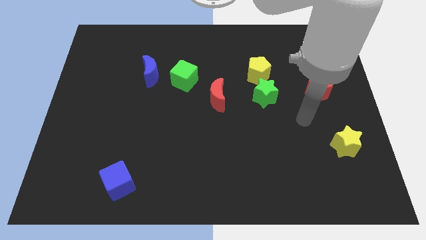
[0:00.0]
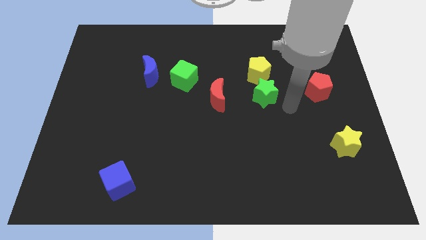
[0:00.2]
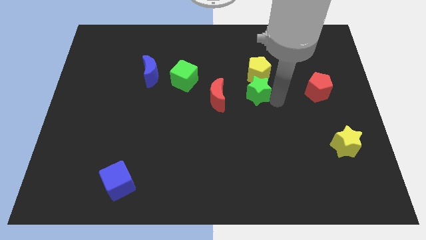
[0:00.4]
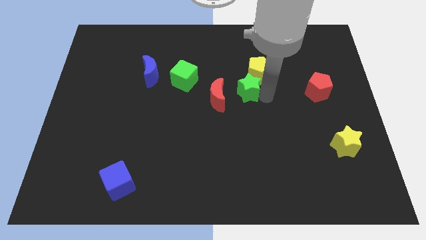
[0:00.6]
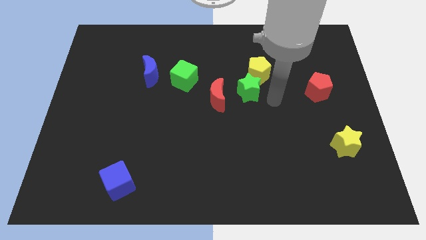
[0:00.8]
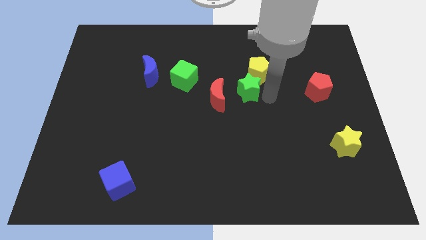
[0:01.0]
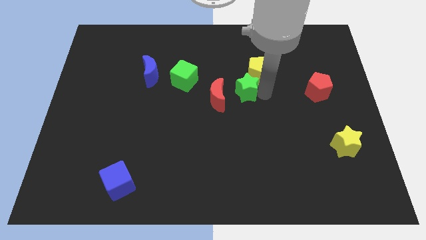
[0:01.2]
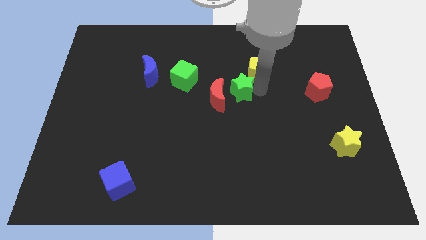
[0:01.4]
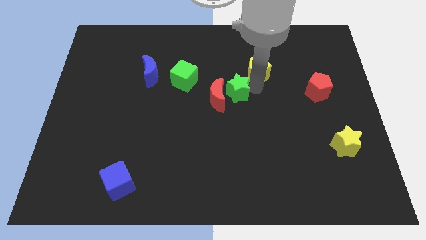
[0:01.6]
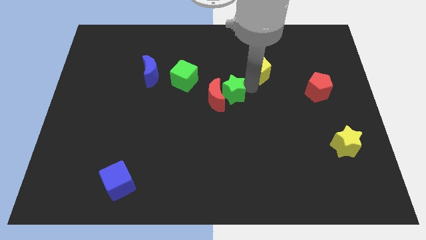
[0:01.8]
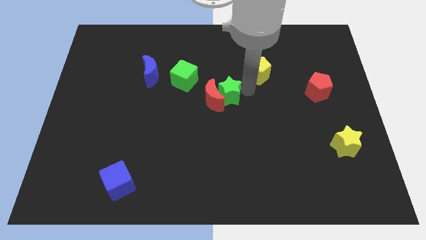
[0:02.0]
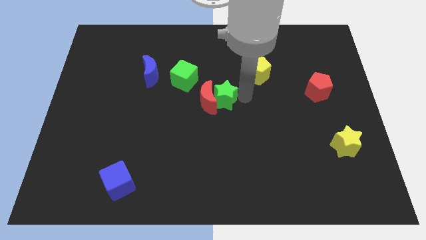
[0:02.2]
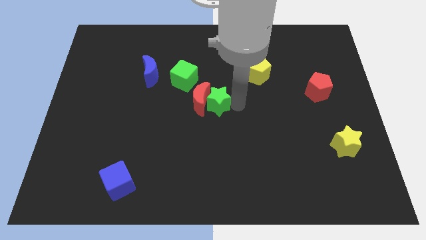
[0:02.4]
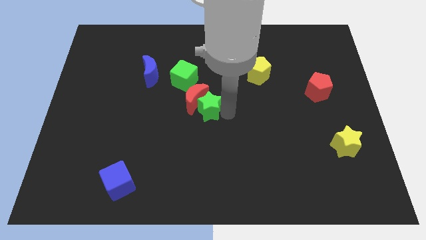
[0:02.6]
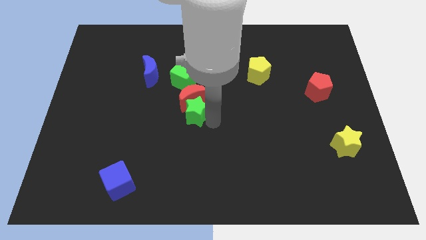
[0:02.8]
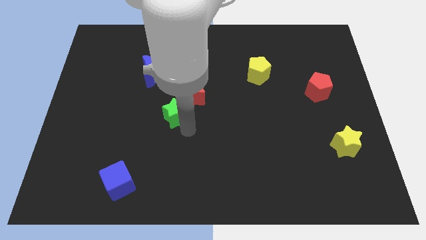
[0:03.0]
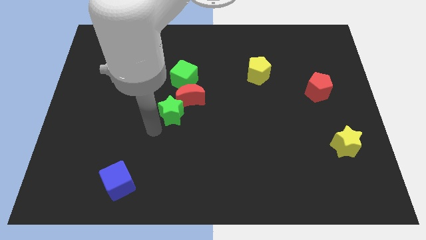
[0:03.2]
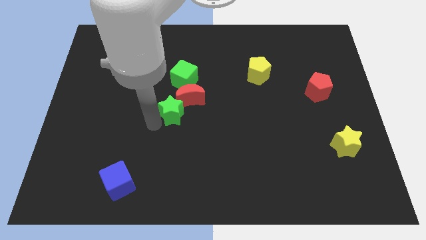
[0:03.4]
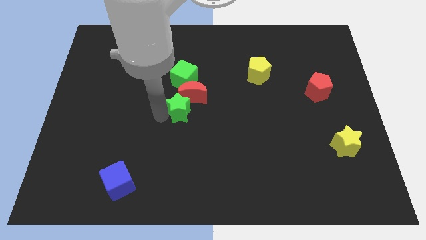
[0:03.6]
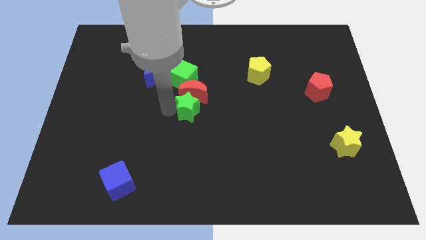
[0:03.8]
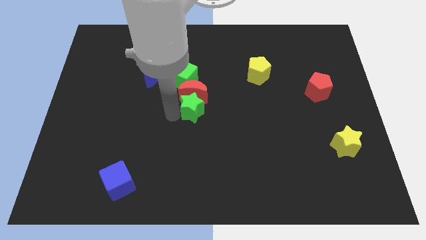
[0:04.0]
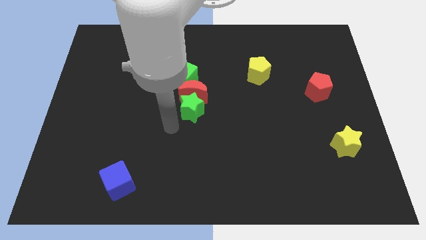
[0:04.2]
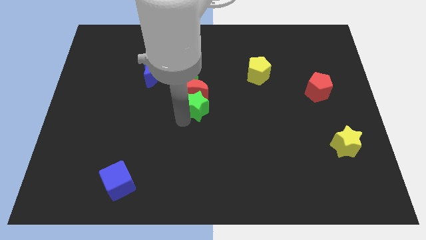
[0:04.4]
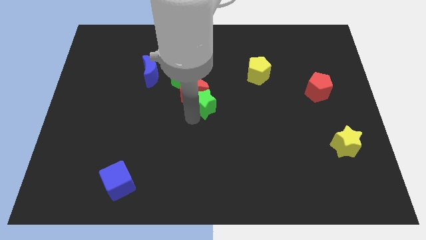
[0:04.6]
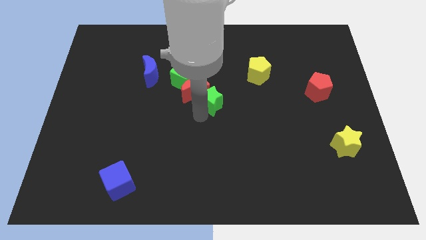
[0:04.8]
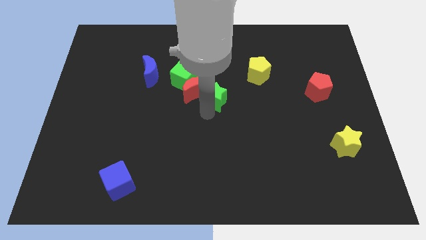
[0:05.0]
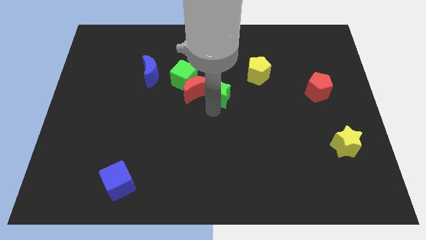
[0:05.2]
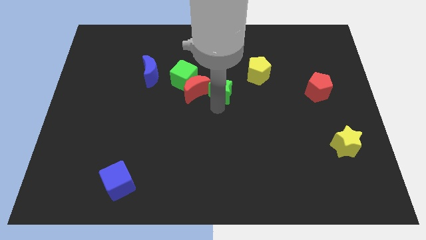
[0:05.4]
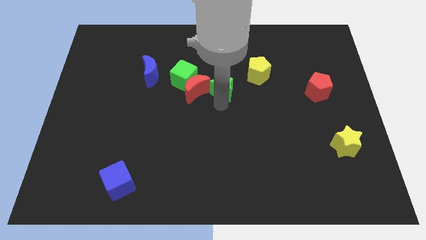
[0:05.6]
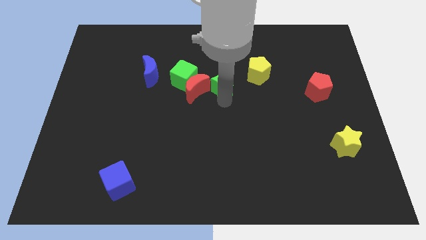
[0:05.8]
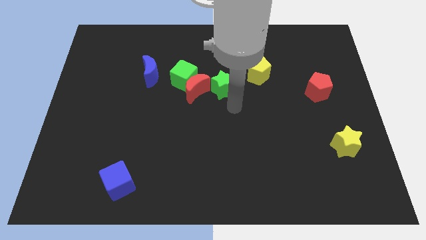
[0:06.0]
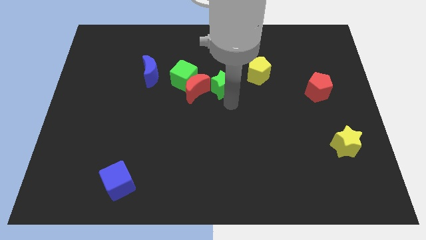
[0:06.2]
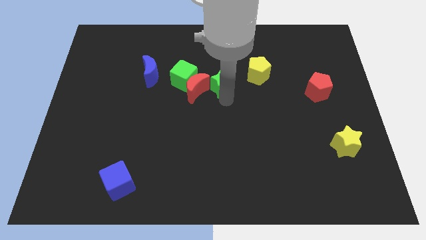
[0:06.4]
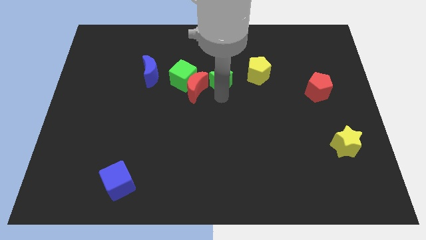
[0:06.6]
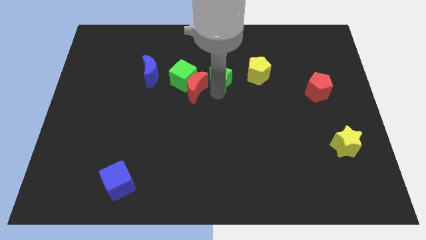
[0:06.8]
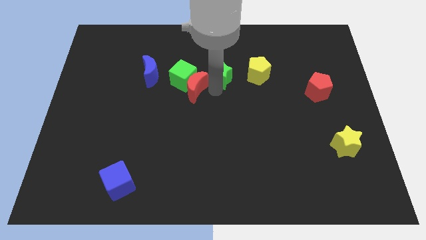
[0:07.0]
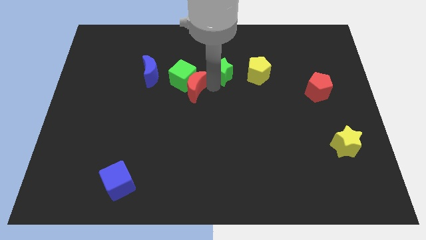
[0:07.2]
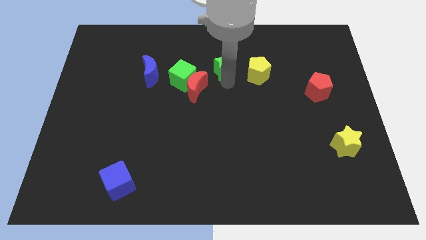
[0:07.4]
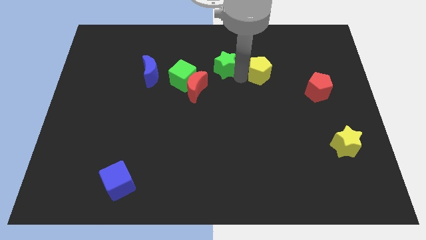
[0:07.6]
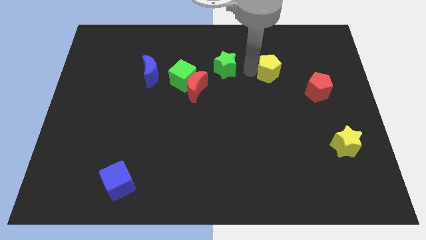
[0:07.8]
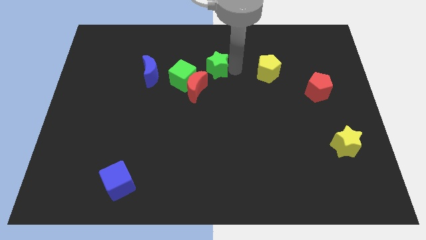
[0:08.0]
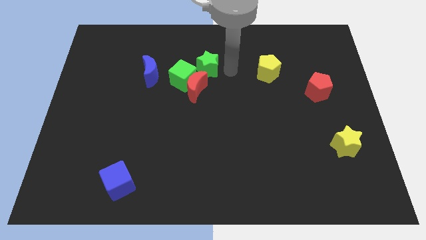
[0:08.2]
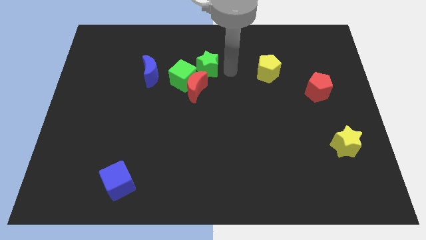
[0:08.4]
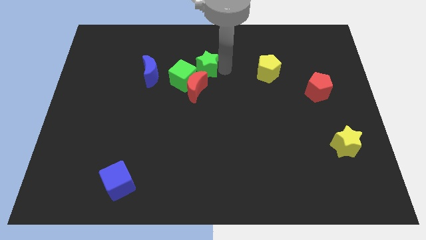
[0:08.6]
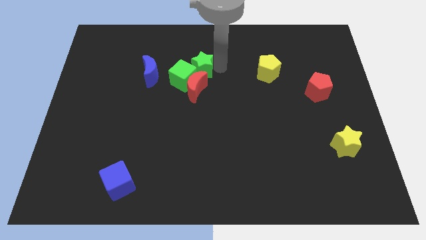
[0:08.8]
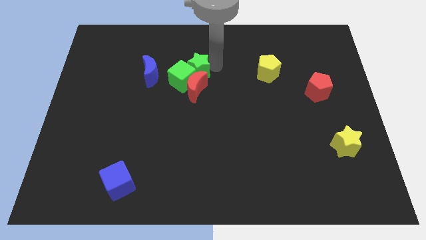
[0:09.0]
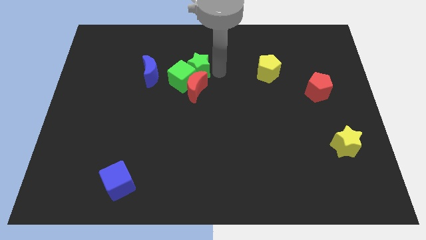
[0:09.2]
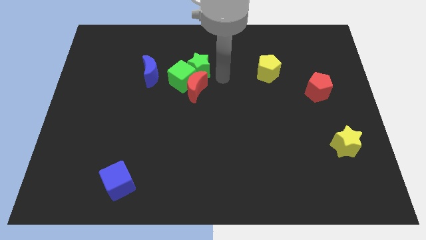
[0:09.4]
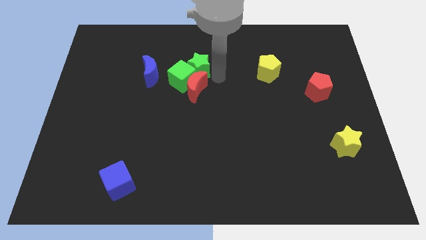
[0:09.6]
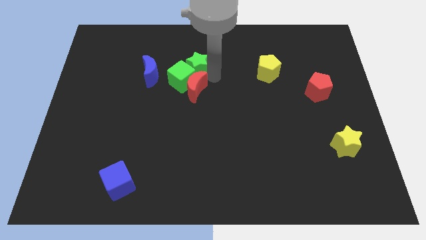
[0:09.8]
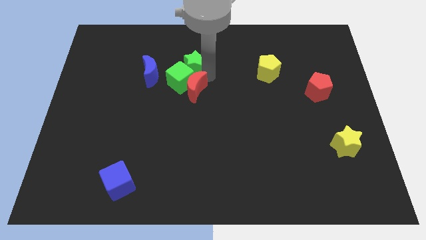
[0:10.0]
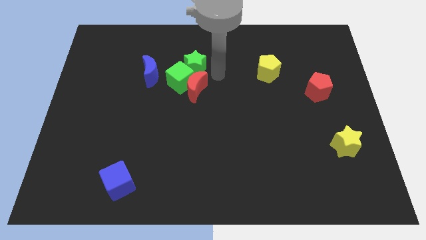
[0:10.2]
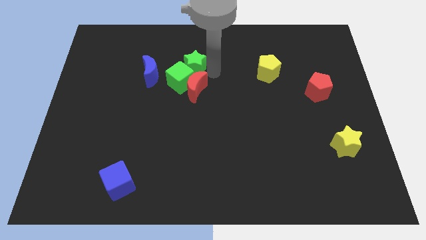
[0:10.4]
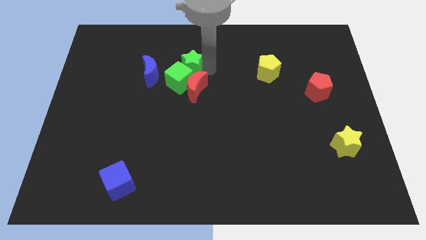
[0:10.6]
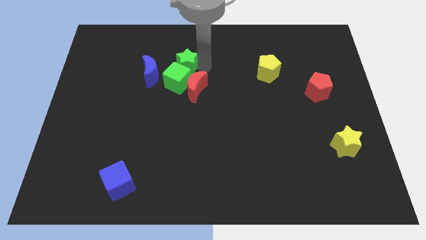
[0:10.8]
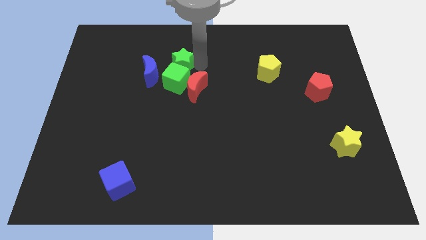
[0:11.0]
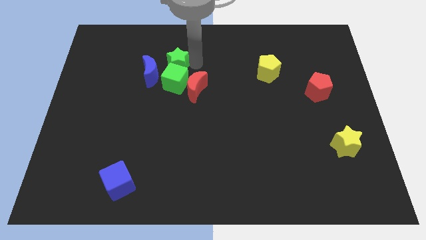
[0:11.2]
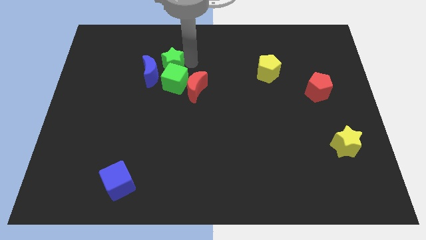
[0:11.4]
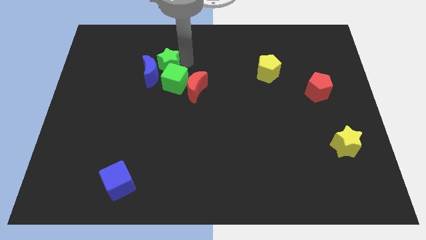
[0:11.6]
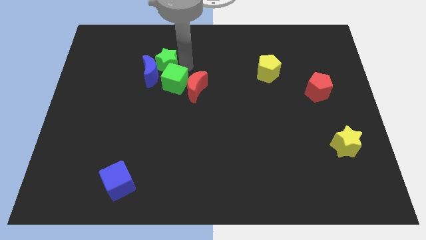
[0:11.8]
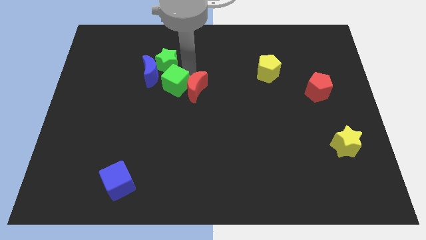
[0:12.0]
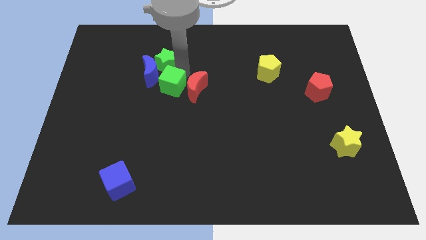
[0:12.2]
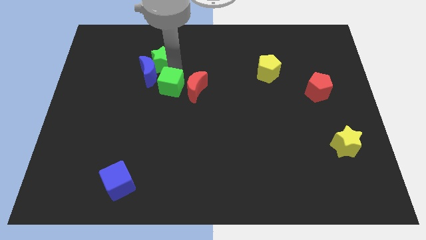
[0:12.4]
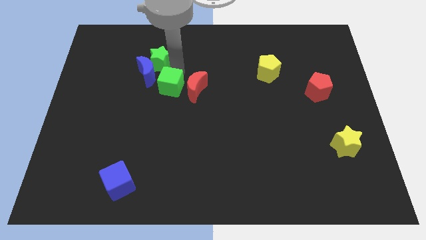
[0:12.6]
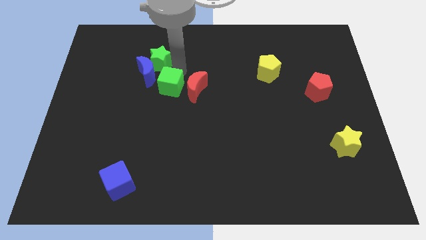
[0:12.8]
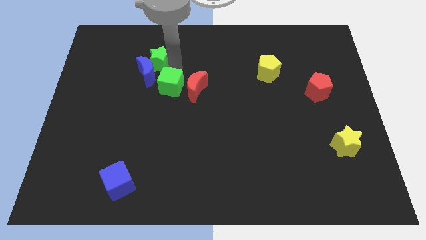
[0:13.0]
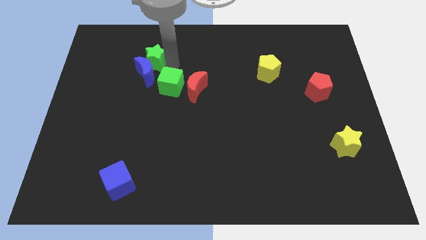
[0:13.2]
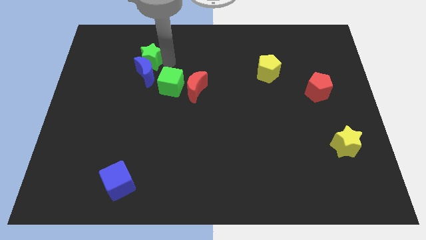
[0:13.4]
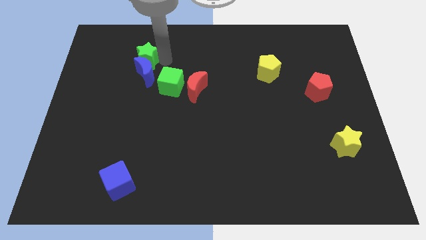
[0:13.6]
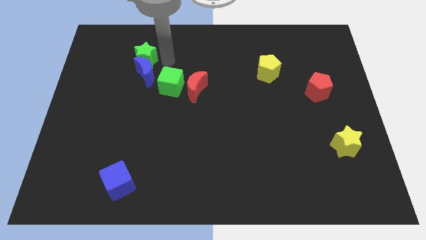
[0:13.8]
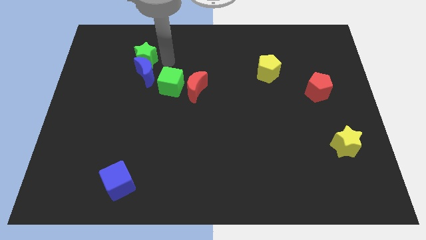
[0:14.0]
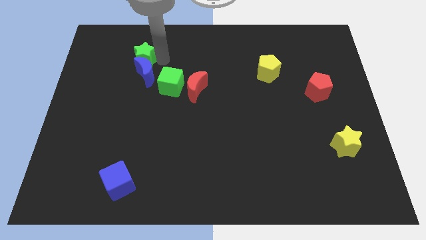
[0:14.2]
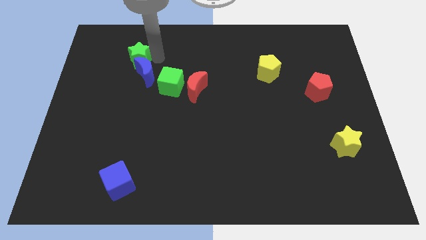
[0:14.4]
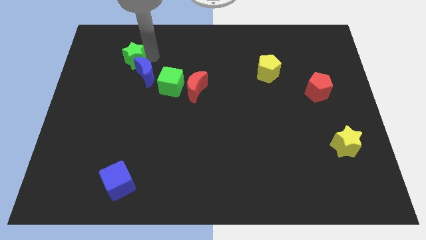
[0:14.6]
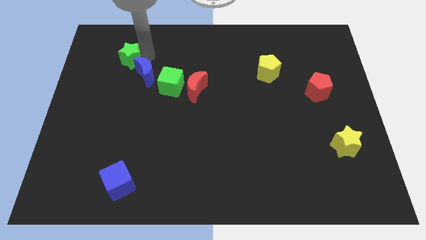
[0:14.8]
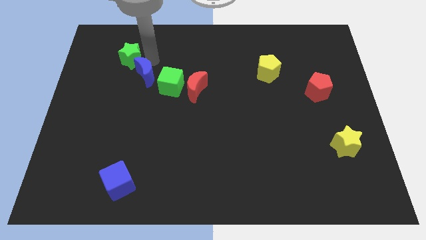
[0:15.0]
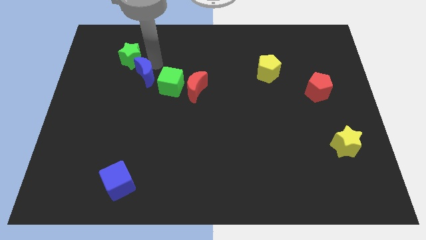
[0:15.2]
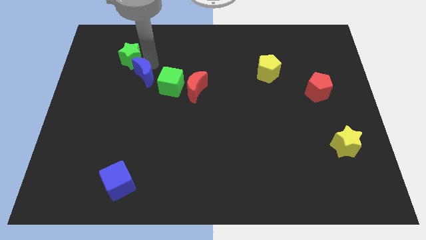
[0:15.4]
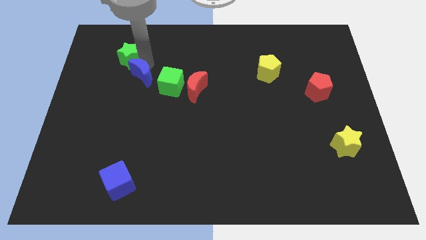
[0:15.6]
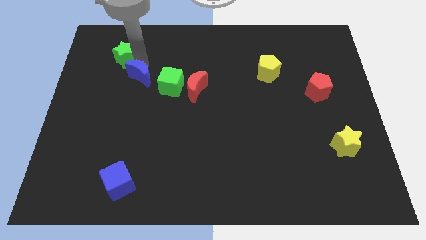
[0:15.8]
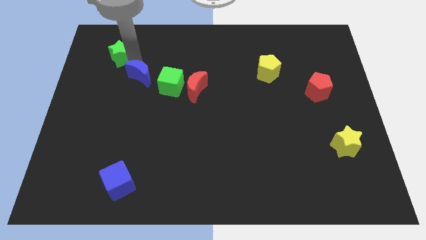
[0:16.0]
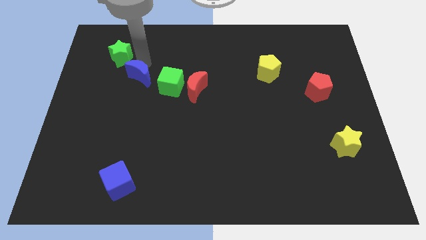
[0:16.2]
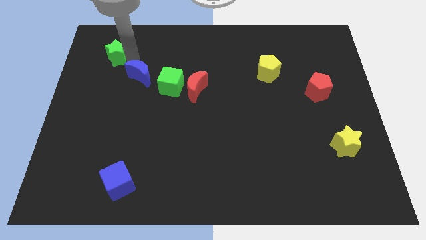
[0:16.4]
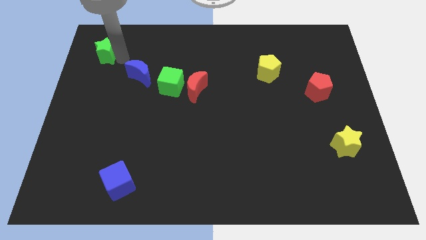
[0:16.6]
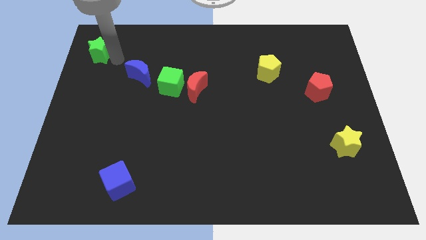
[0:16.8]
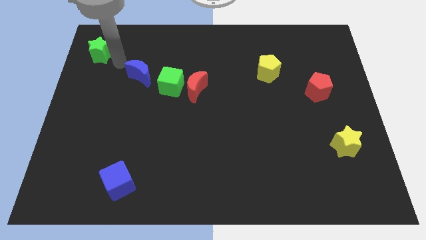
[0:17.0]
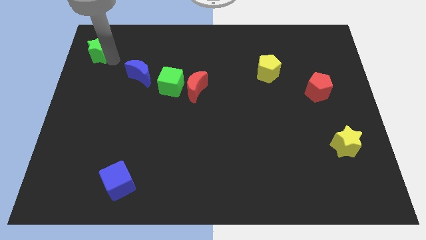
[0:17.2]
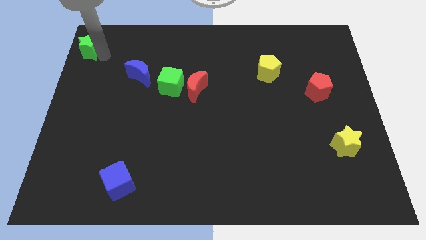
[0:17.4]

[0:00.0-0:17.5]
move the green star to the top left
